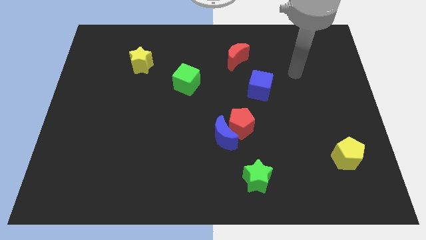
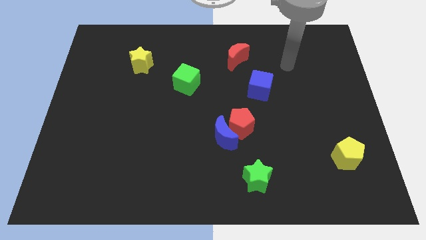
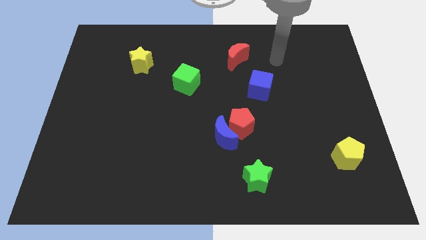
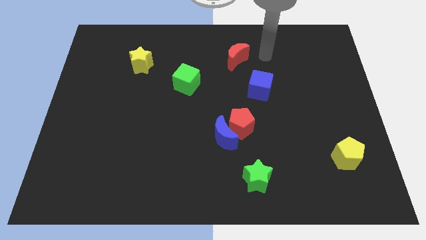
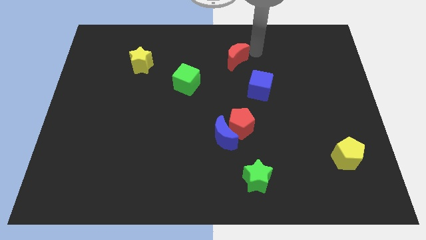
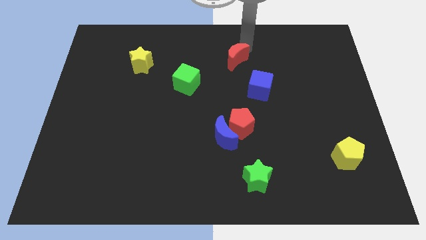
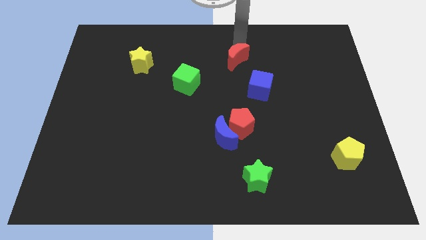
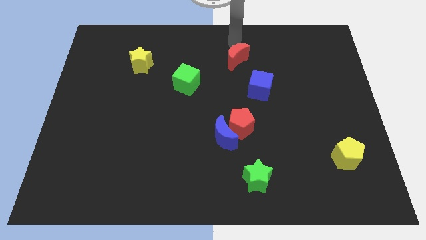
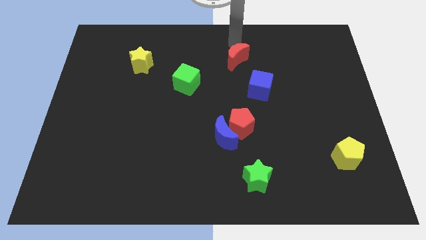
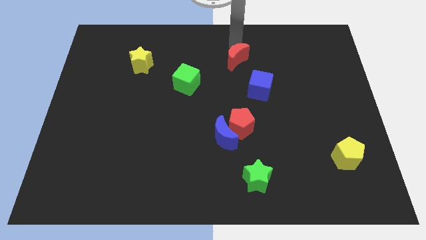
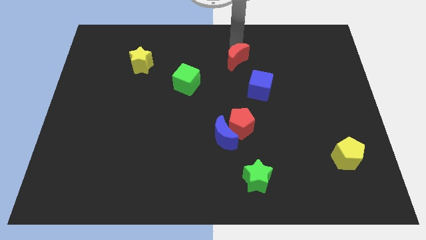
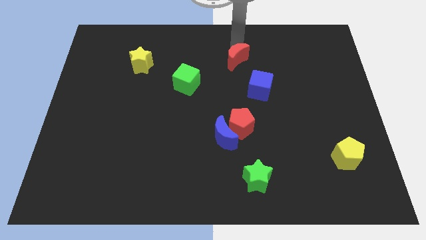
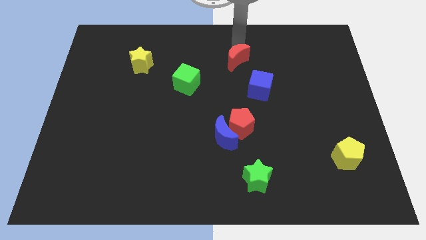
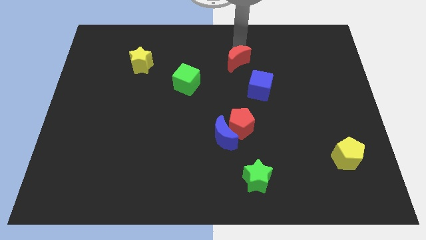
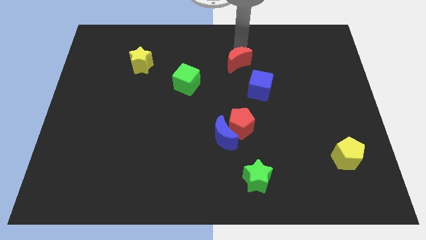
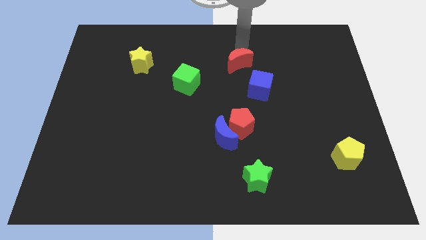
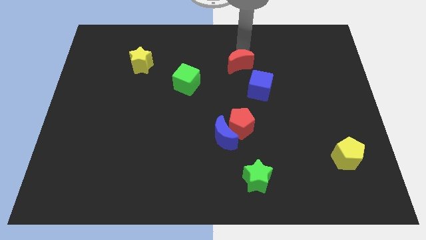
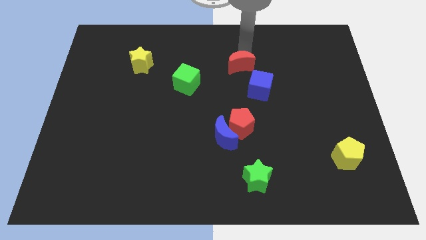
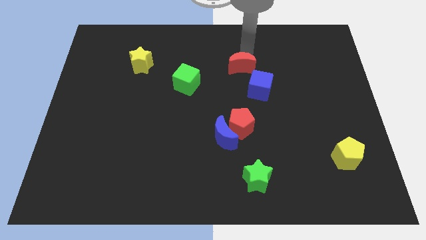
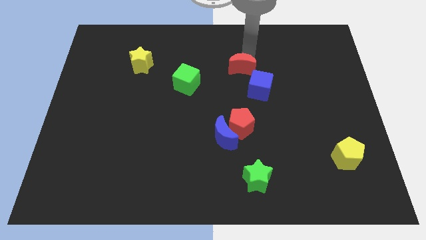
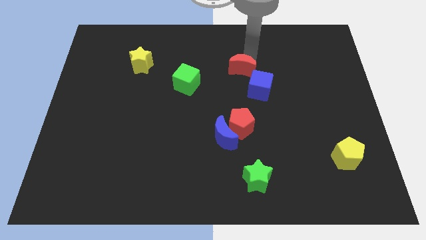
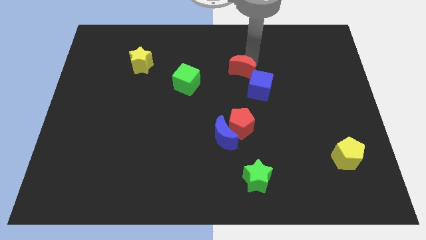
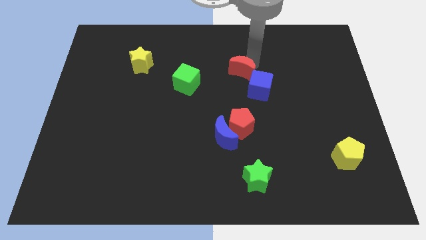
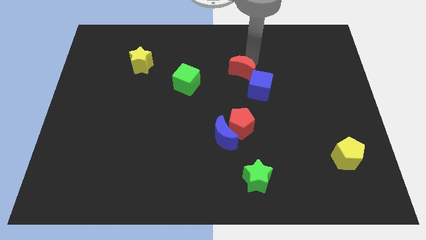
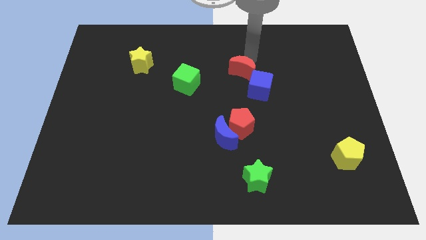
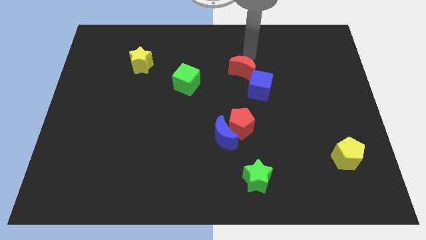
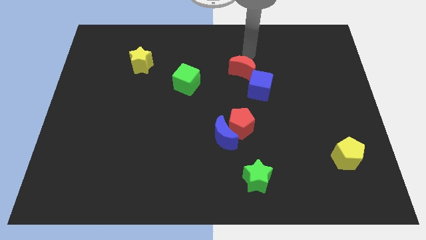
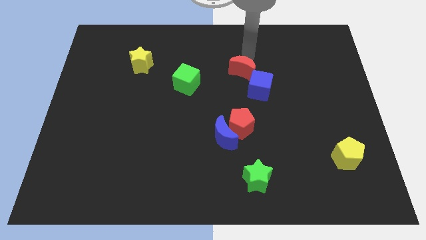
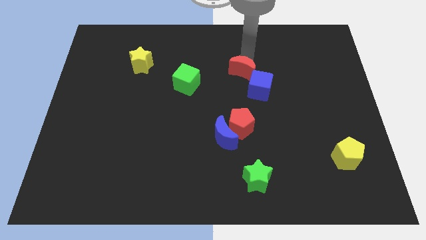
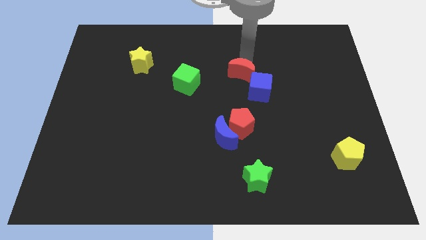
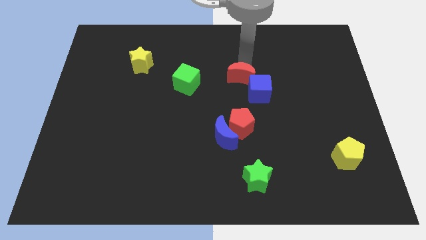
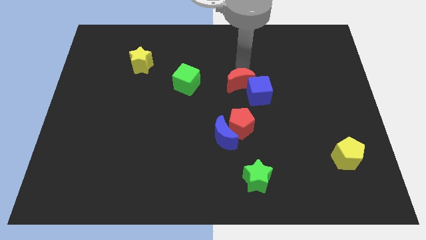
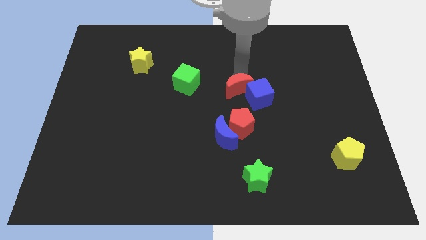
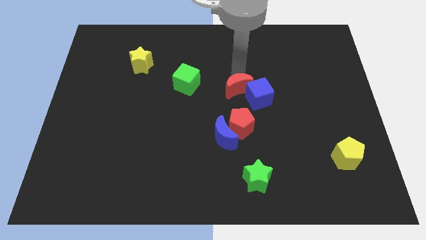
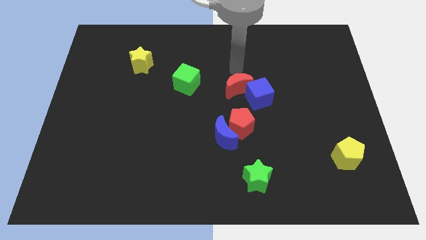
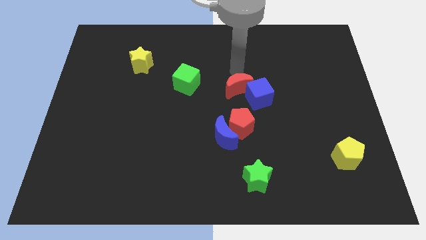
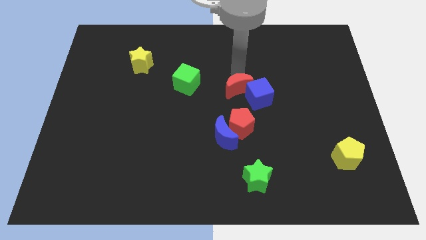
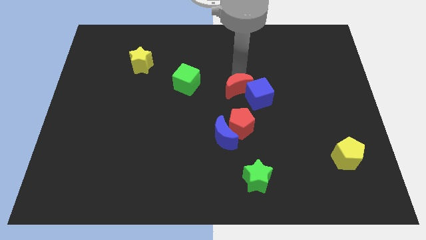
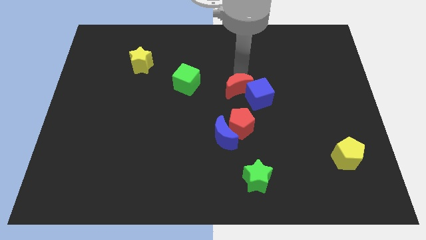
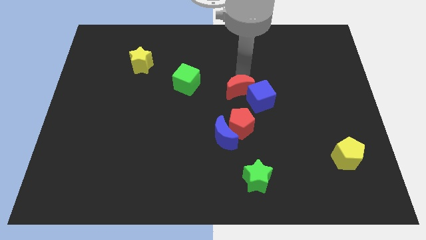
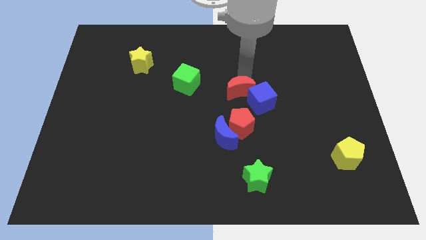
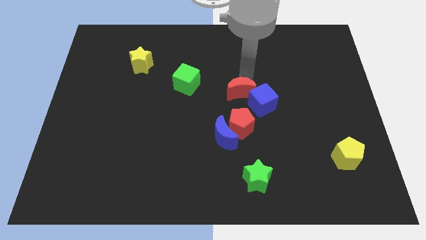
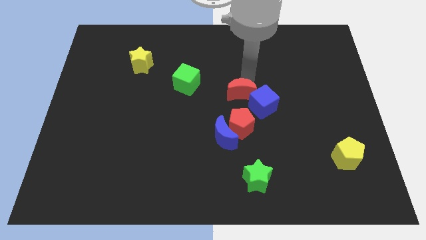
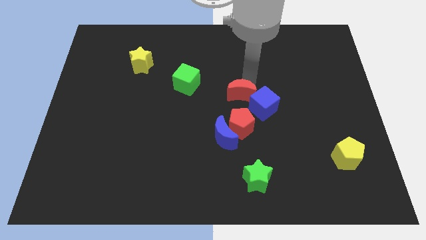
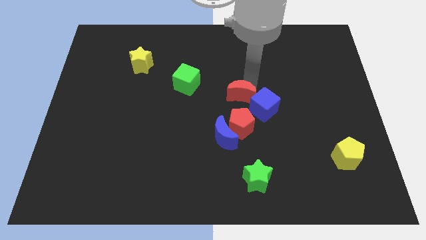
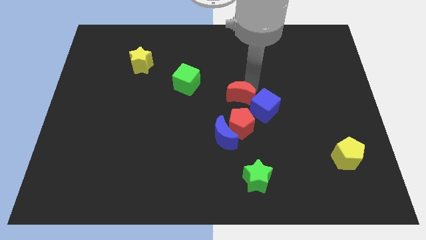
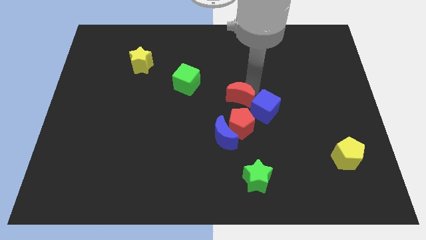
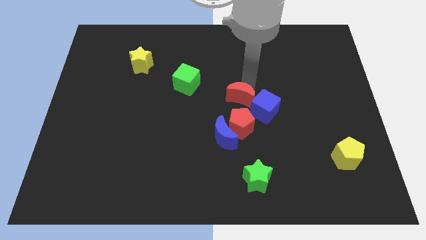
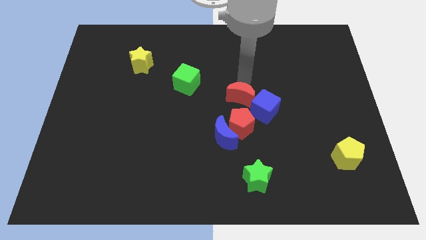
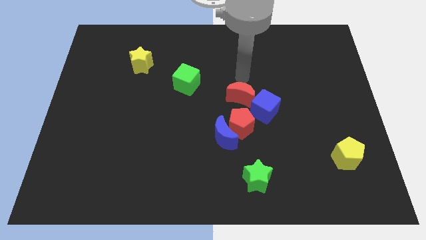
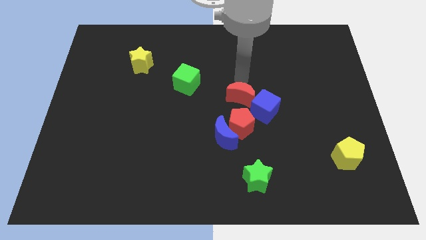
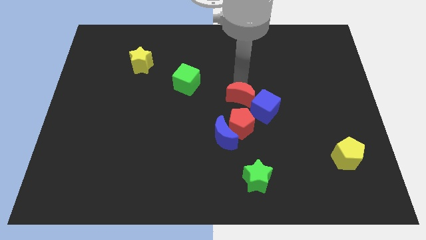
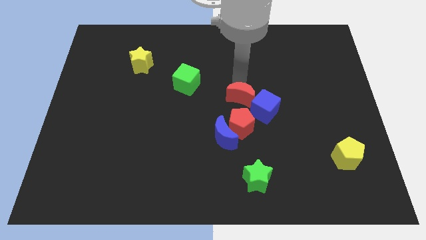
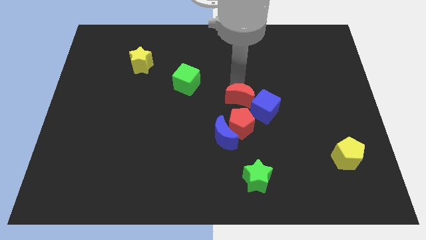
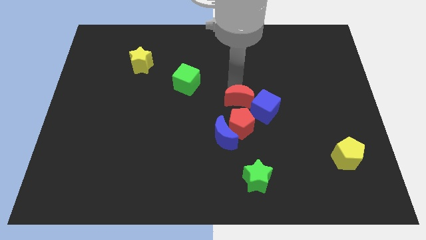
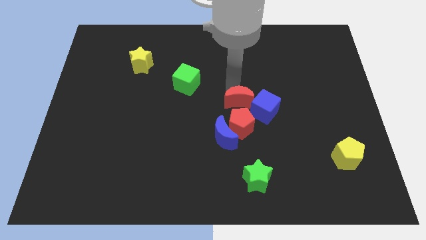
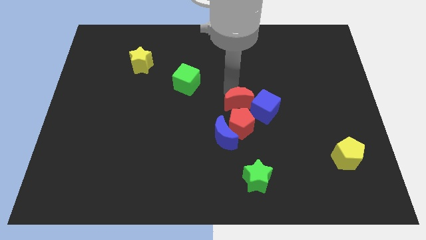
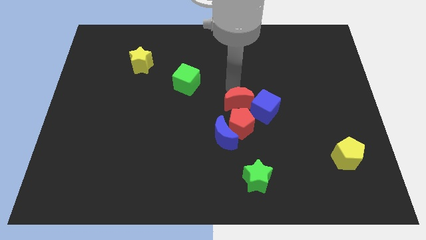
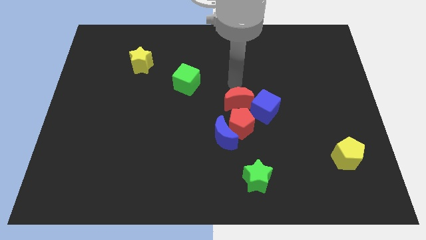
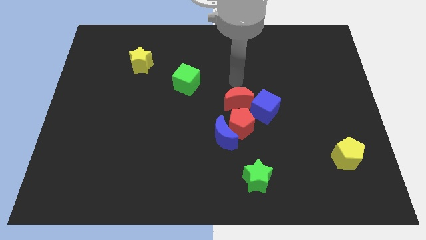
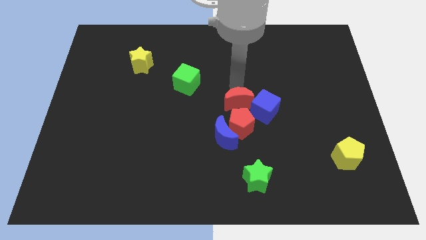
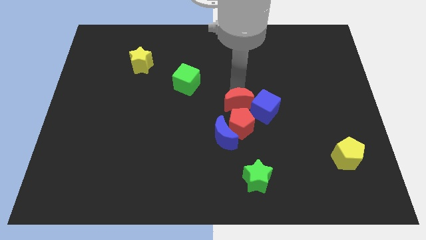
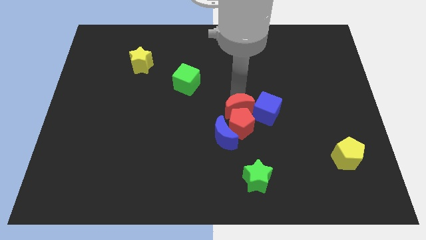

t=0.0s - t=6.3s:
slide the red moon close to the red pentagon

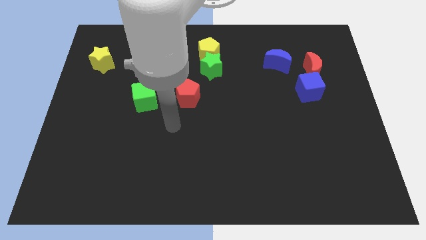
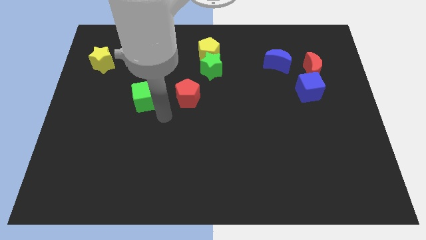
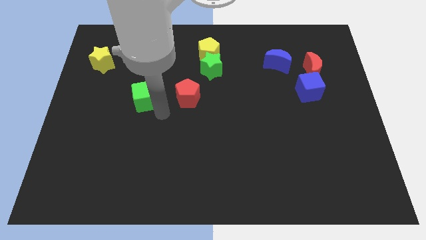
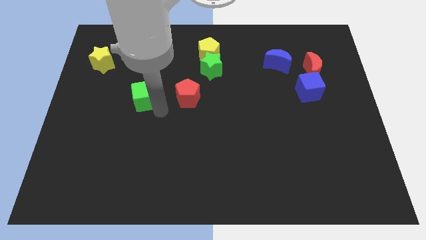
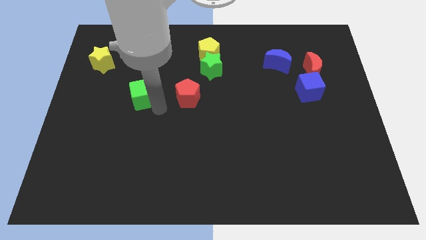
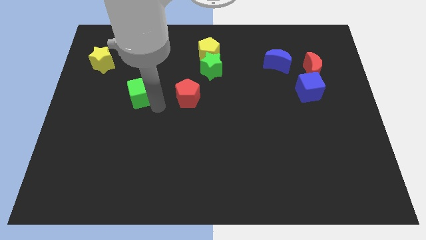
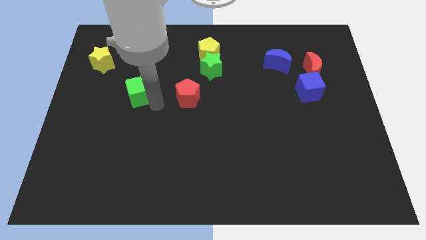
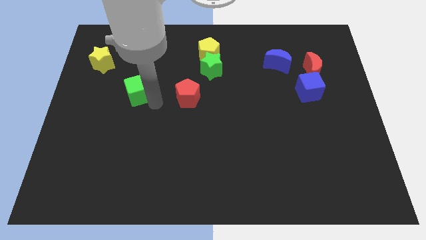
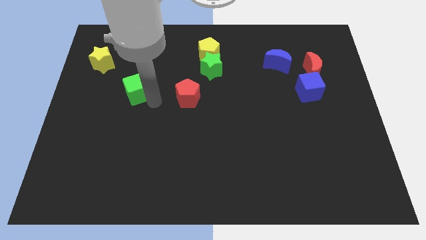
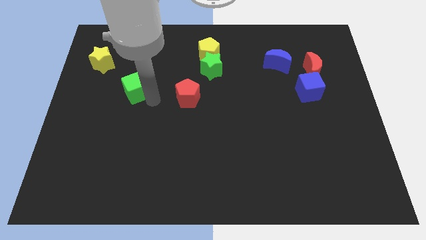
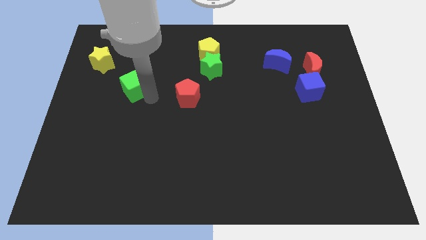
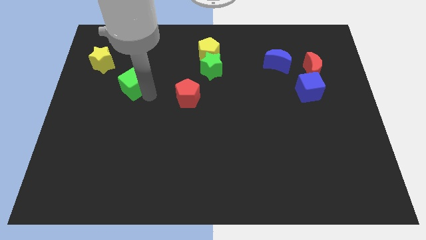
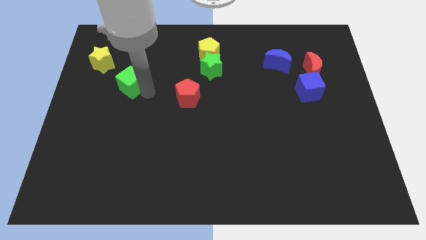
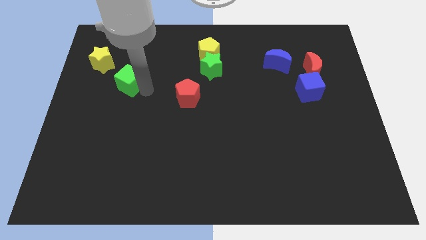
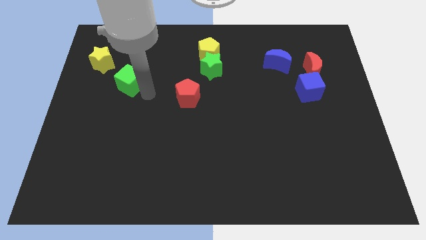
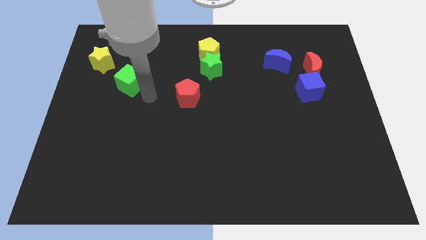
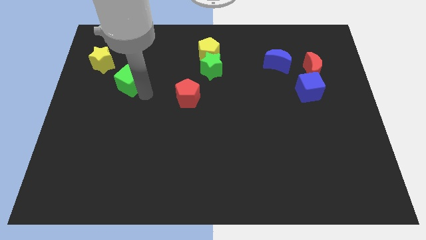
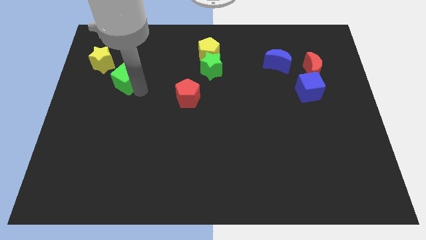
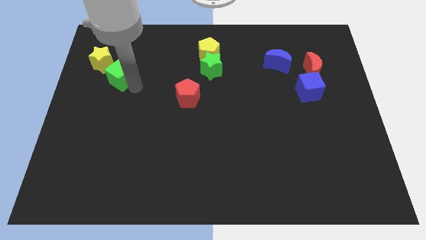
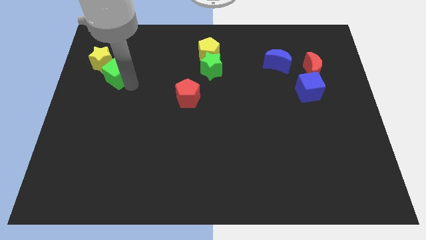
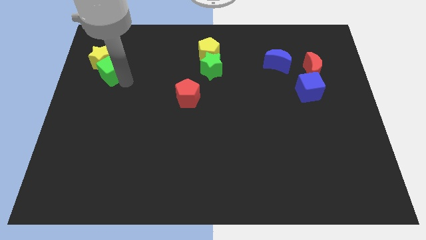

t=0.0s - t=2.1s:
move the green cube next to the yellow star
